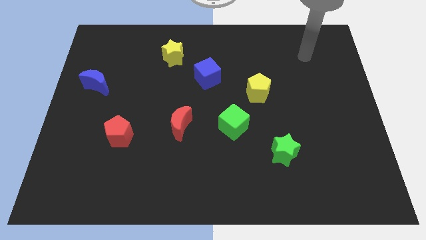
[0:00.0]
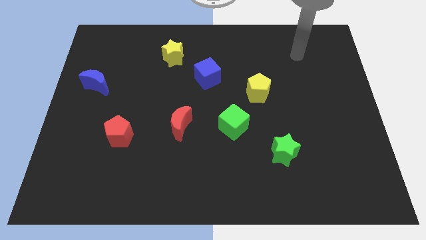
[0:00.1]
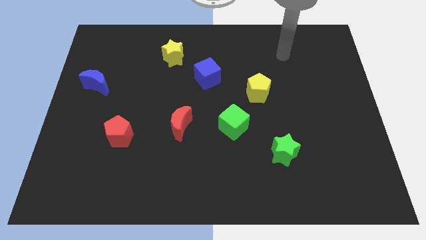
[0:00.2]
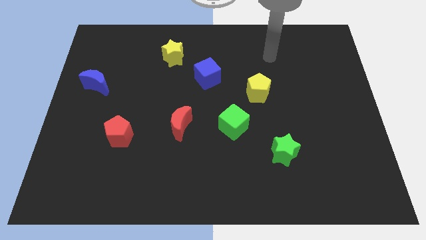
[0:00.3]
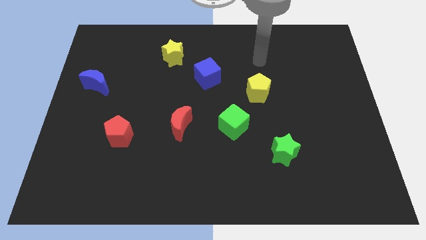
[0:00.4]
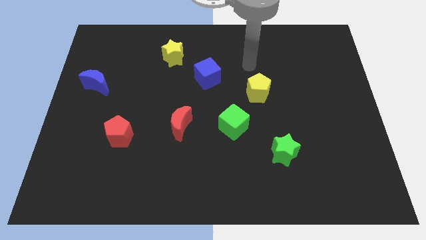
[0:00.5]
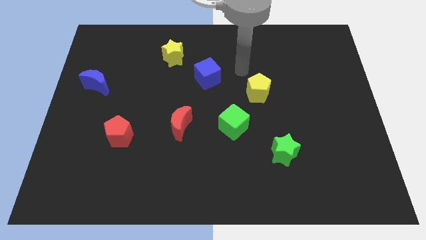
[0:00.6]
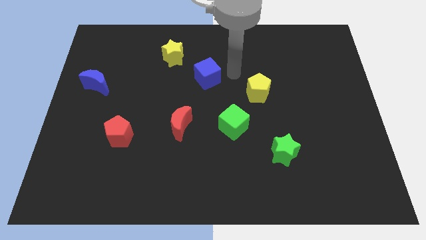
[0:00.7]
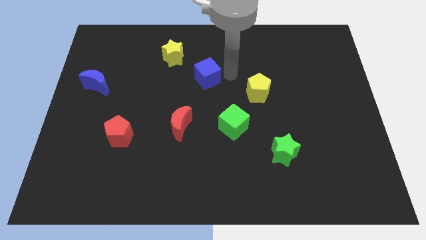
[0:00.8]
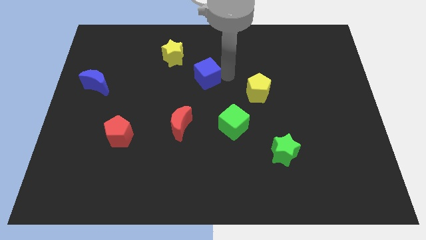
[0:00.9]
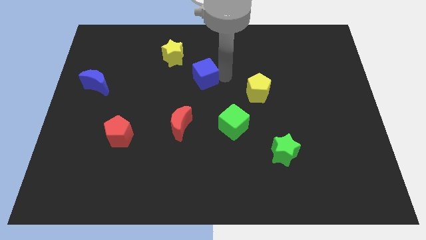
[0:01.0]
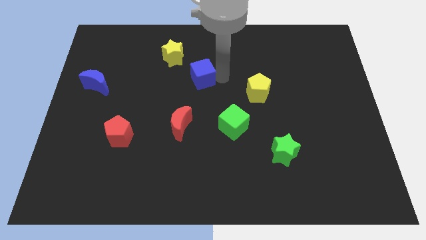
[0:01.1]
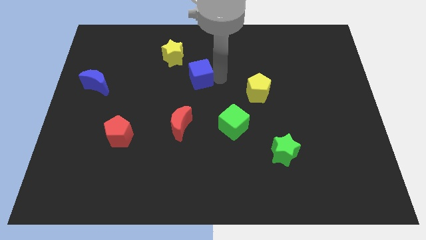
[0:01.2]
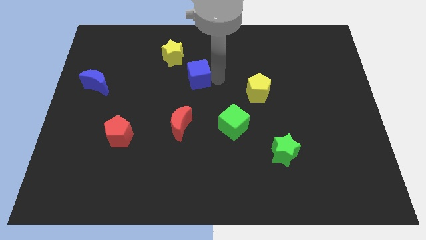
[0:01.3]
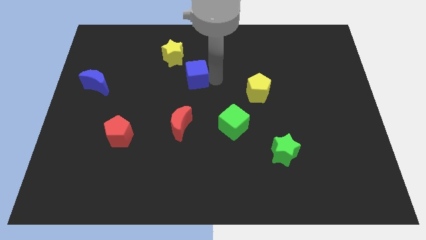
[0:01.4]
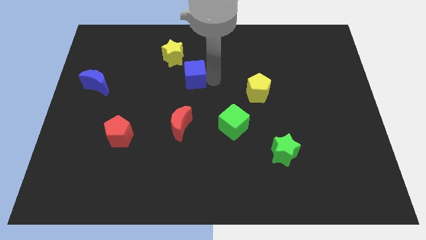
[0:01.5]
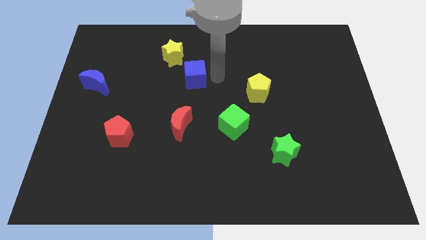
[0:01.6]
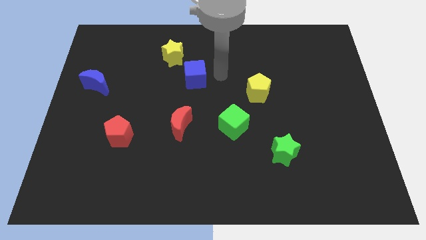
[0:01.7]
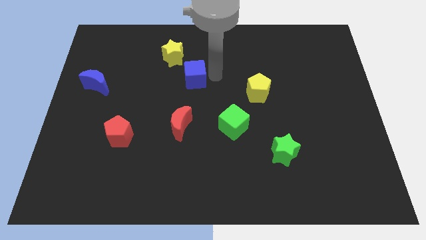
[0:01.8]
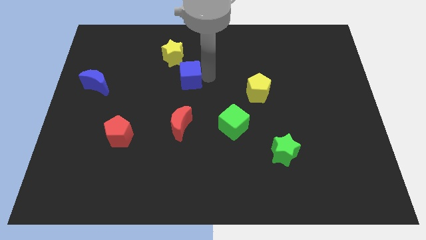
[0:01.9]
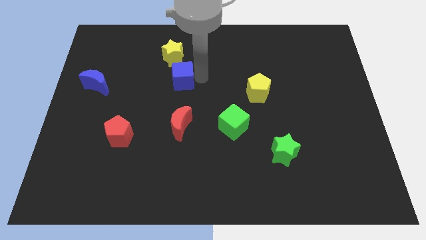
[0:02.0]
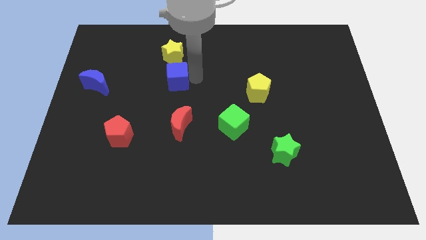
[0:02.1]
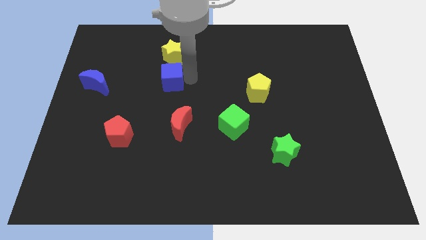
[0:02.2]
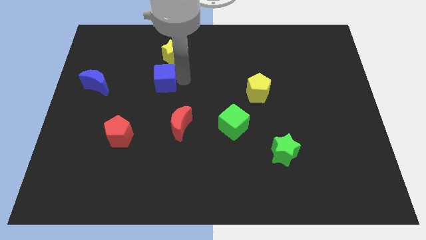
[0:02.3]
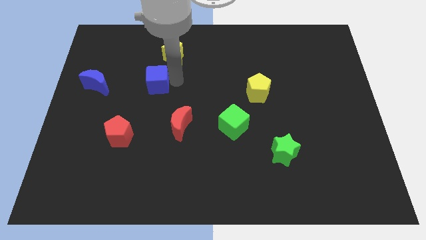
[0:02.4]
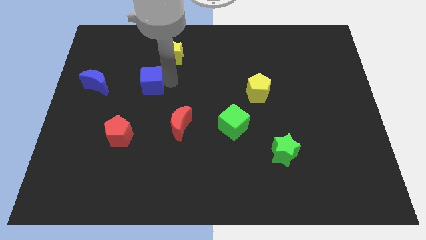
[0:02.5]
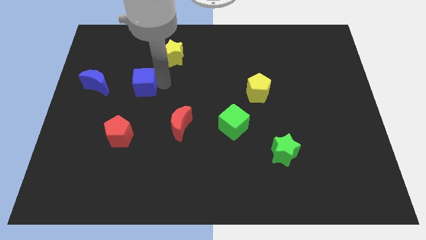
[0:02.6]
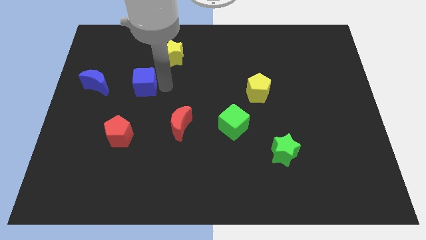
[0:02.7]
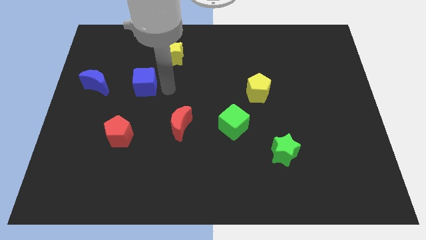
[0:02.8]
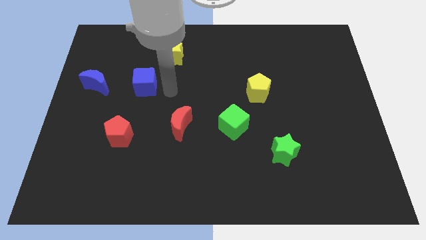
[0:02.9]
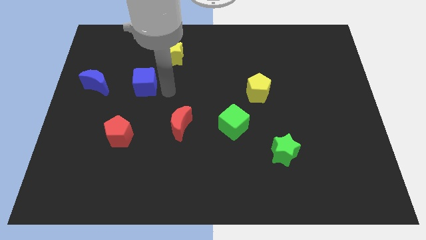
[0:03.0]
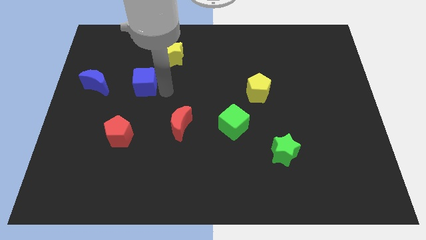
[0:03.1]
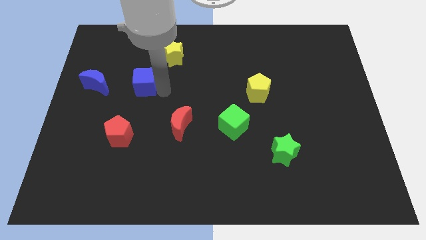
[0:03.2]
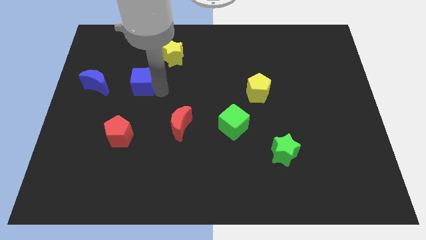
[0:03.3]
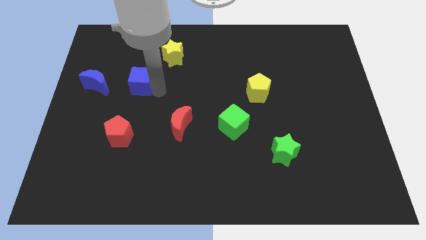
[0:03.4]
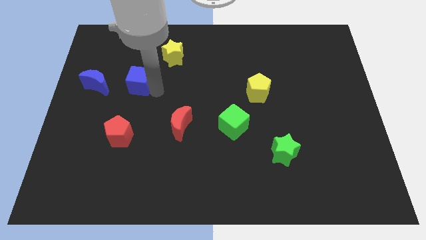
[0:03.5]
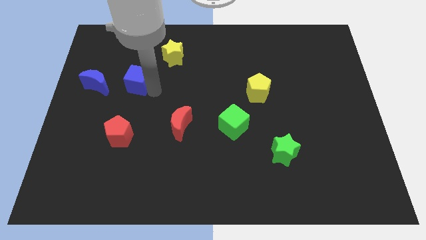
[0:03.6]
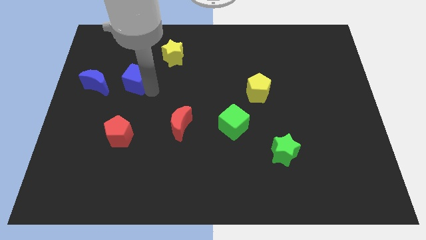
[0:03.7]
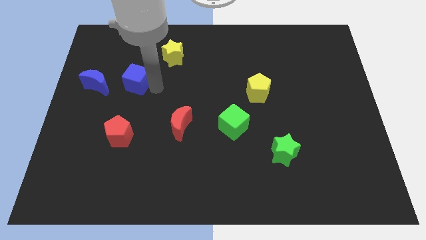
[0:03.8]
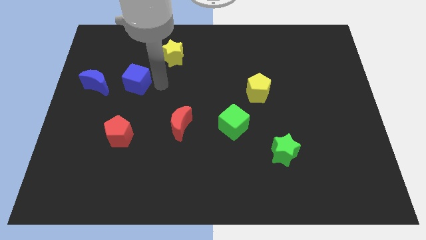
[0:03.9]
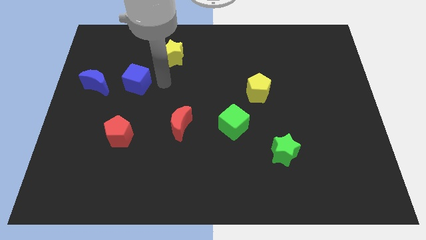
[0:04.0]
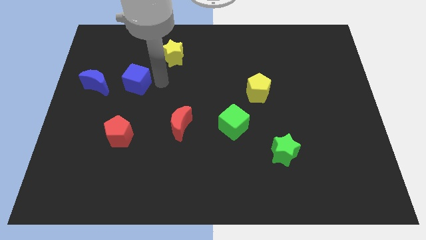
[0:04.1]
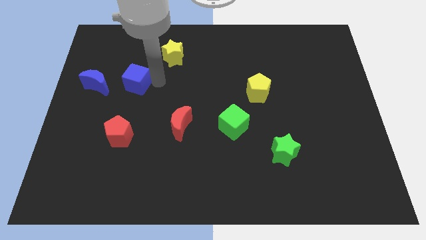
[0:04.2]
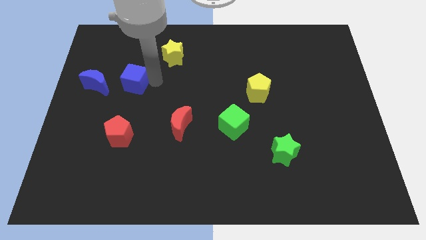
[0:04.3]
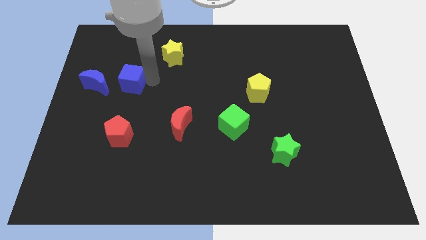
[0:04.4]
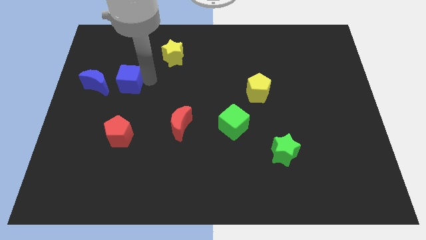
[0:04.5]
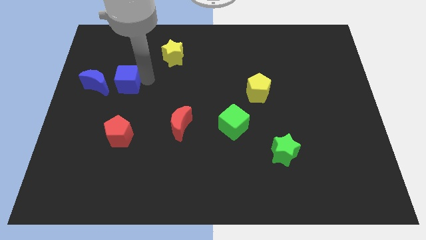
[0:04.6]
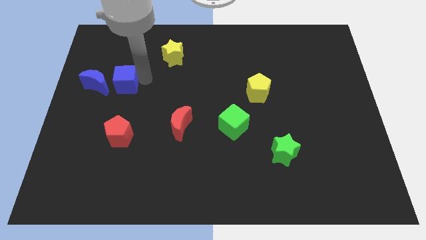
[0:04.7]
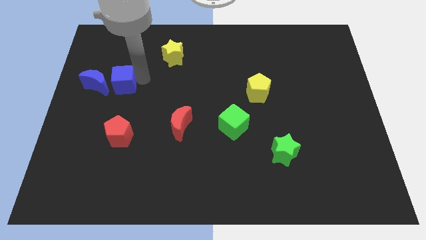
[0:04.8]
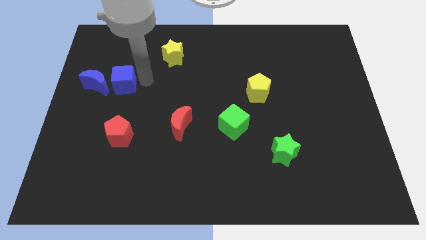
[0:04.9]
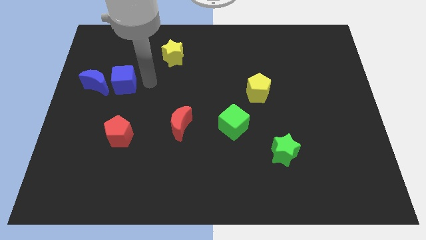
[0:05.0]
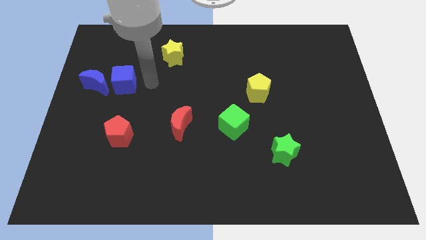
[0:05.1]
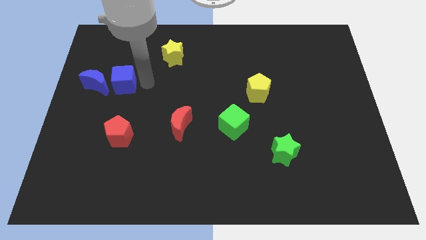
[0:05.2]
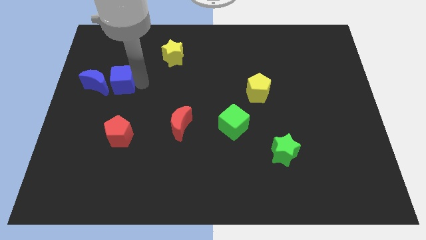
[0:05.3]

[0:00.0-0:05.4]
move the blue cube towards the blue moon

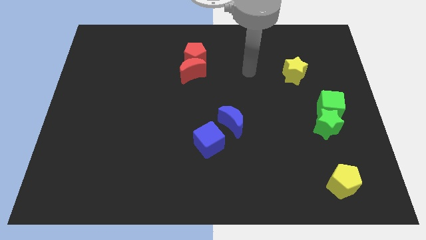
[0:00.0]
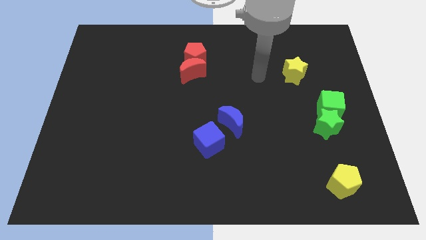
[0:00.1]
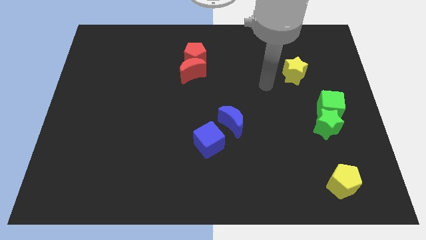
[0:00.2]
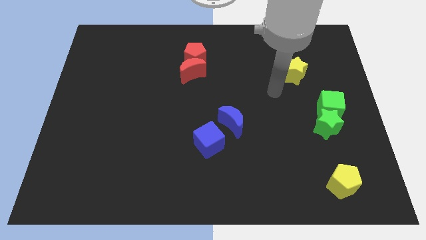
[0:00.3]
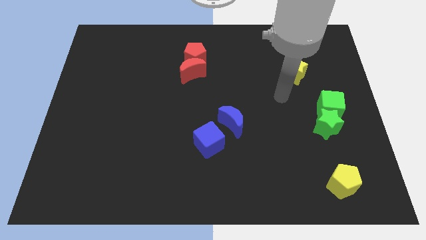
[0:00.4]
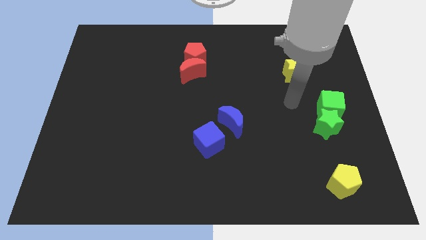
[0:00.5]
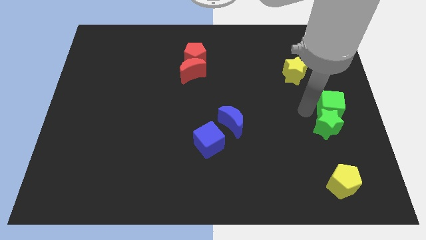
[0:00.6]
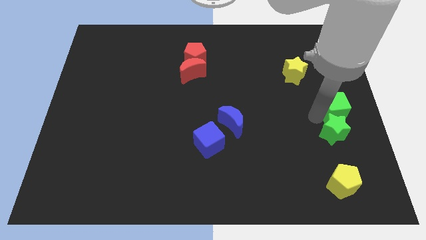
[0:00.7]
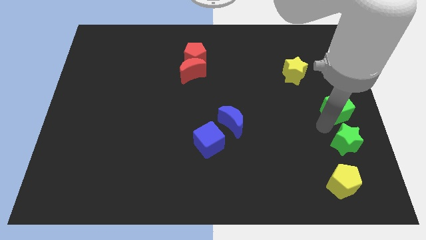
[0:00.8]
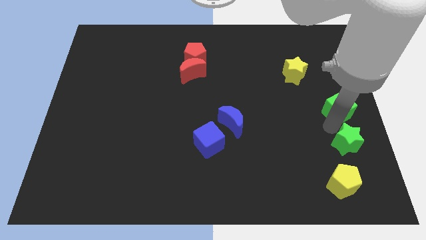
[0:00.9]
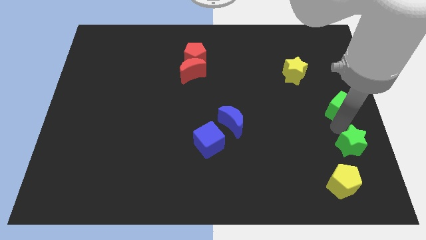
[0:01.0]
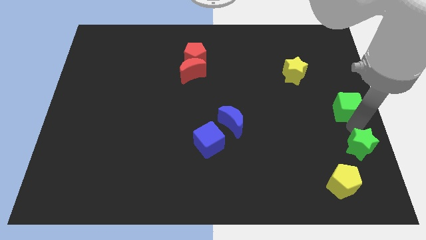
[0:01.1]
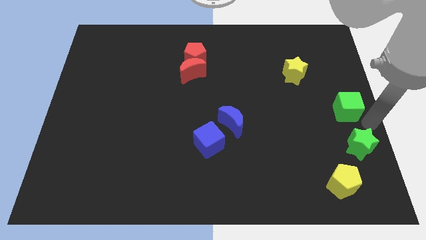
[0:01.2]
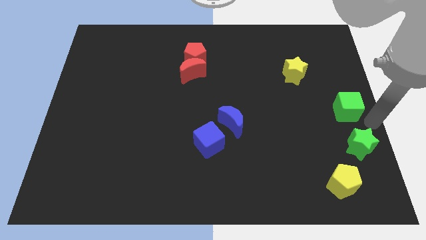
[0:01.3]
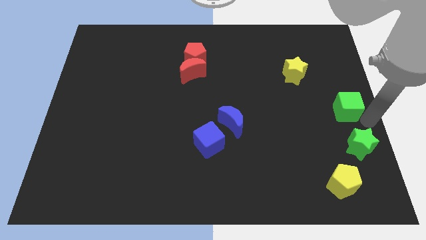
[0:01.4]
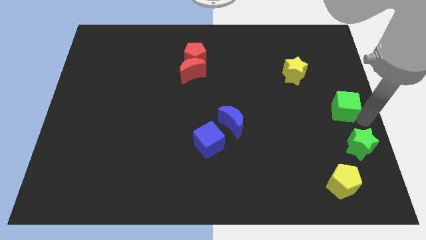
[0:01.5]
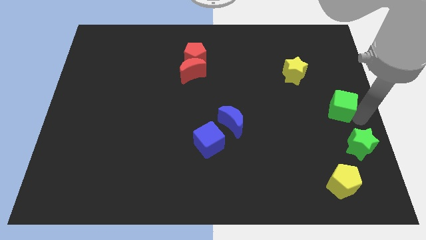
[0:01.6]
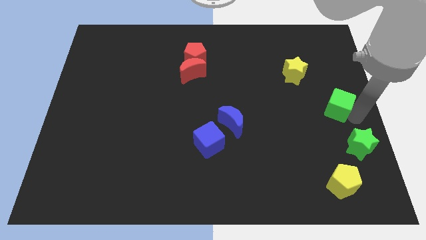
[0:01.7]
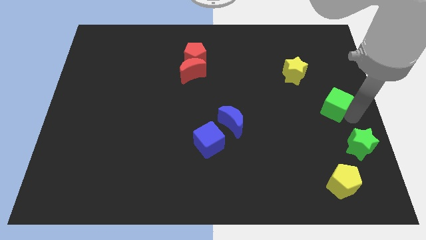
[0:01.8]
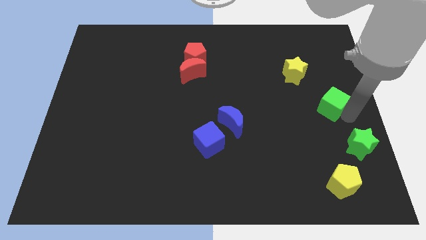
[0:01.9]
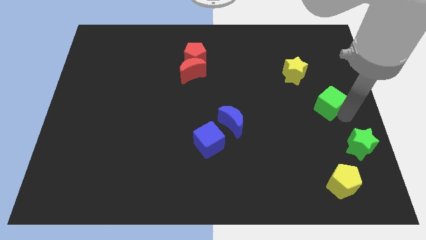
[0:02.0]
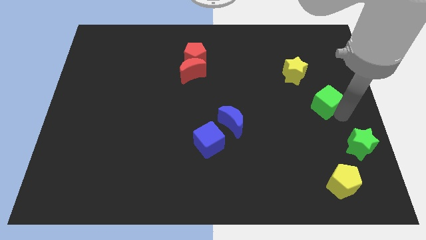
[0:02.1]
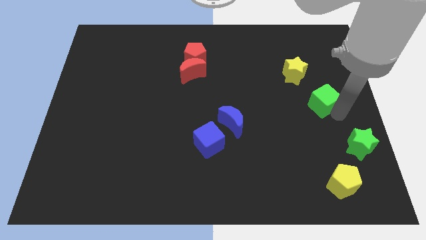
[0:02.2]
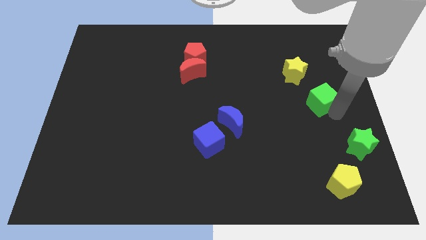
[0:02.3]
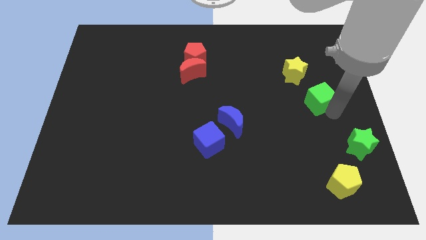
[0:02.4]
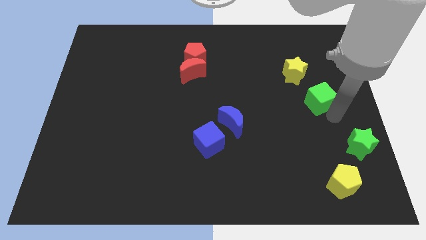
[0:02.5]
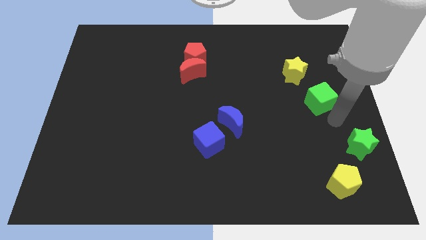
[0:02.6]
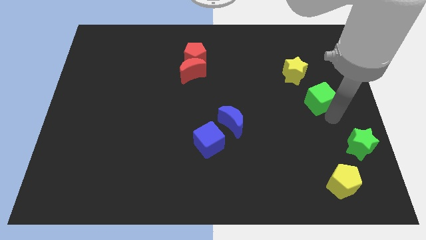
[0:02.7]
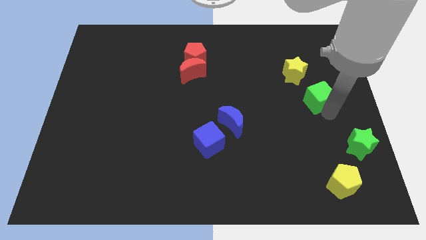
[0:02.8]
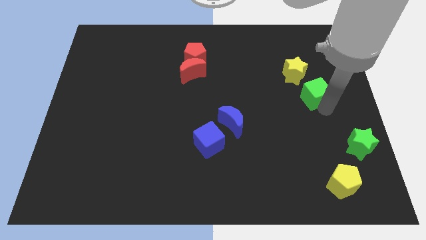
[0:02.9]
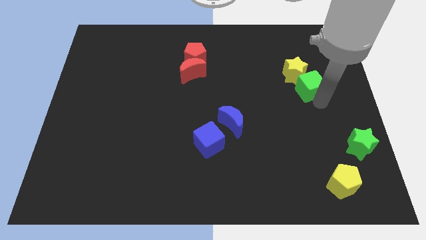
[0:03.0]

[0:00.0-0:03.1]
push the green cube towards the yellow star
